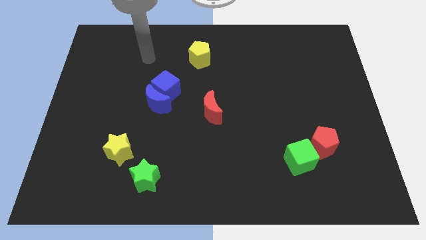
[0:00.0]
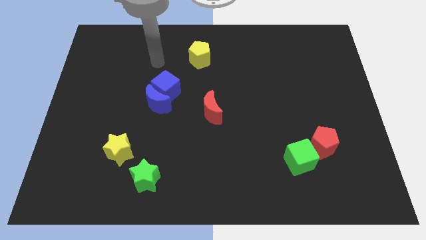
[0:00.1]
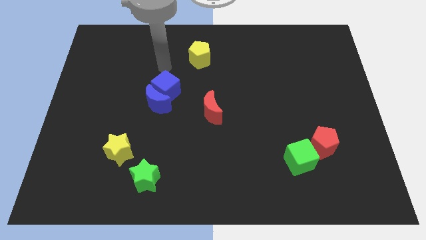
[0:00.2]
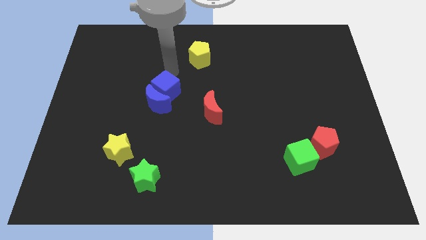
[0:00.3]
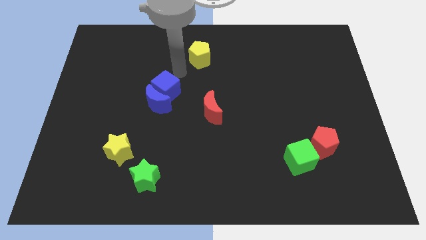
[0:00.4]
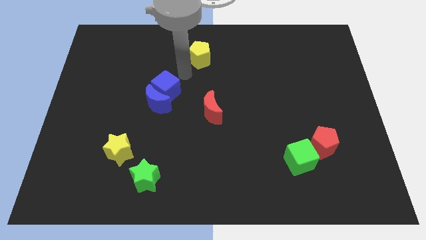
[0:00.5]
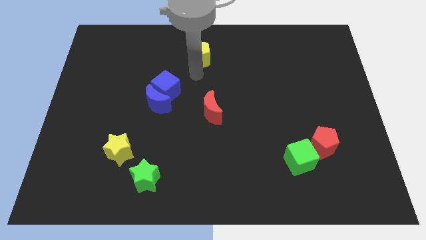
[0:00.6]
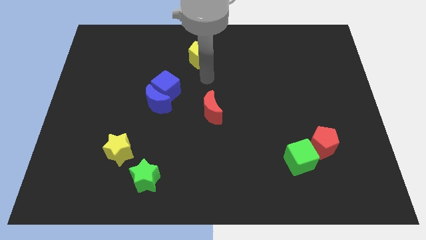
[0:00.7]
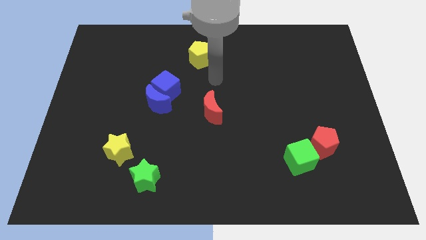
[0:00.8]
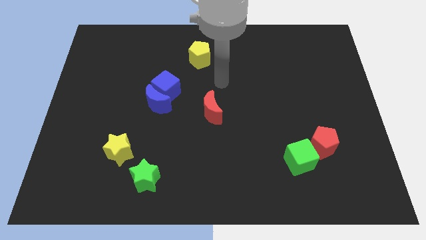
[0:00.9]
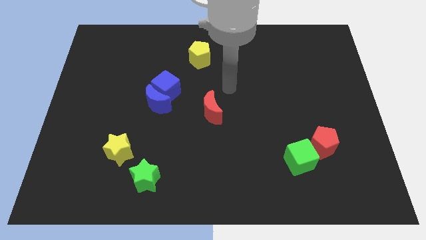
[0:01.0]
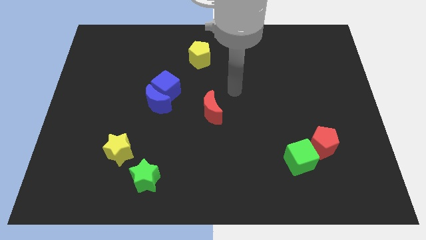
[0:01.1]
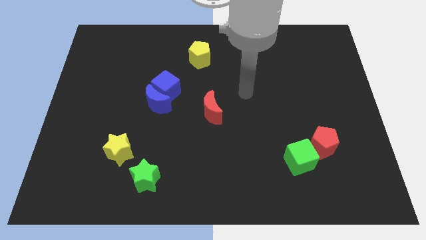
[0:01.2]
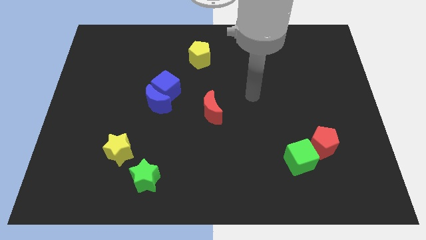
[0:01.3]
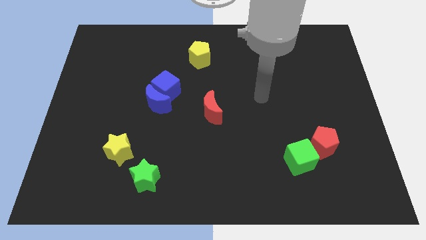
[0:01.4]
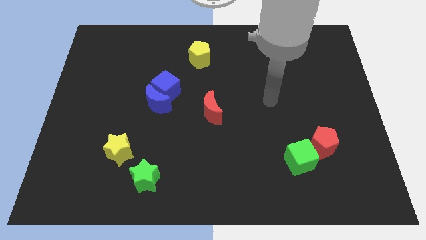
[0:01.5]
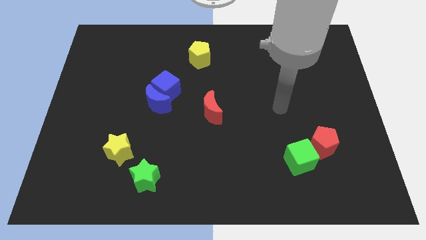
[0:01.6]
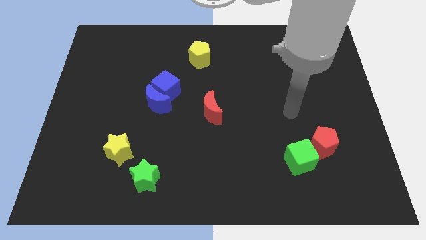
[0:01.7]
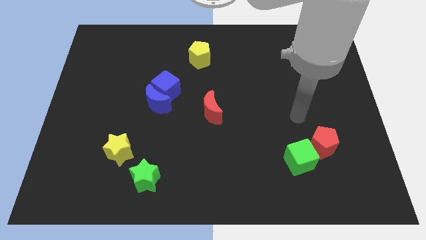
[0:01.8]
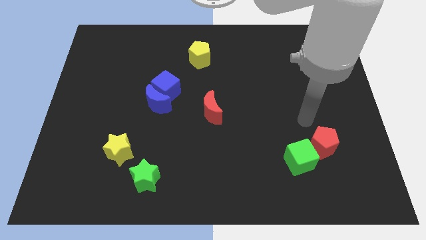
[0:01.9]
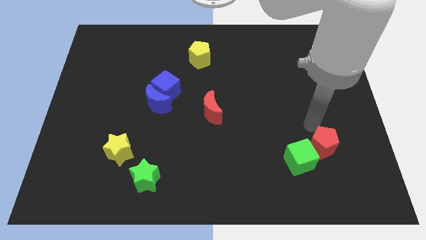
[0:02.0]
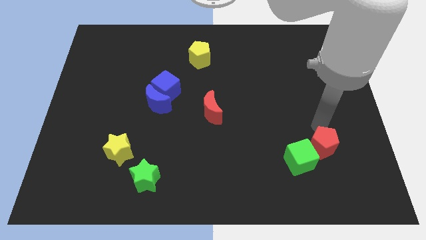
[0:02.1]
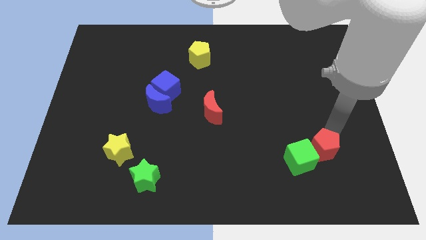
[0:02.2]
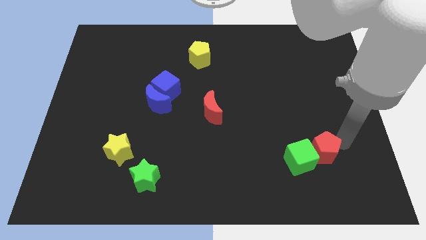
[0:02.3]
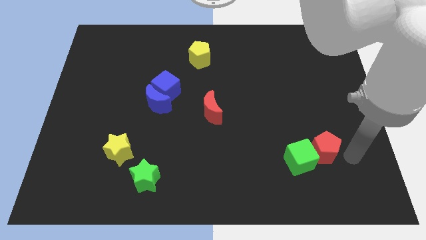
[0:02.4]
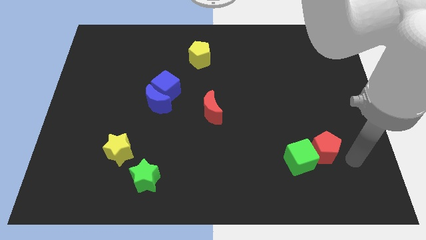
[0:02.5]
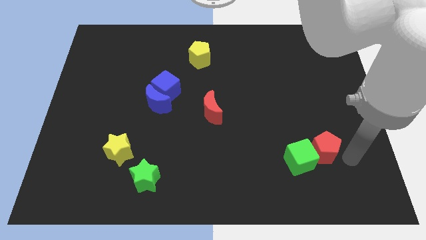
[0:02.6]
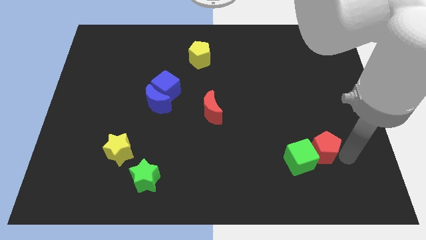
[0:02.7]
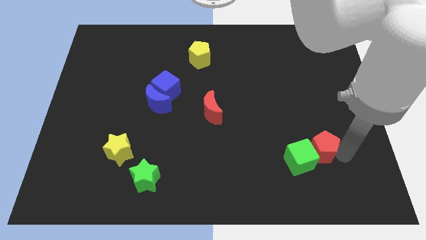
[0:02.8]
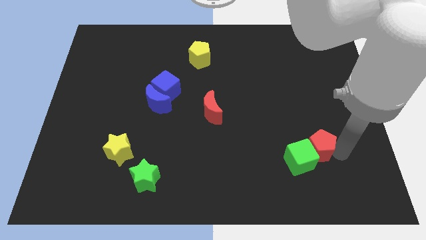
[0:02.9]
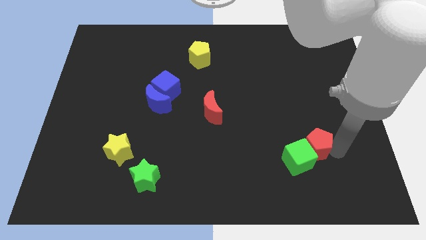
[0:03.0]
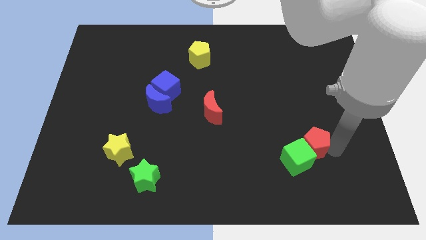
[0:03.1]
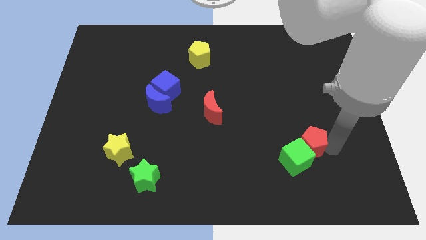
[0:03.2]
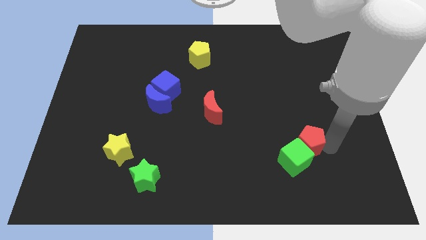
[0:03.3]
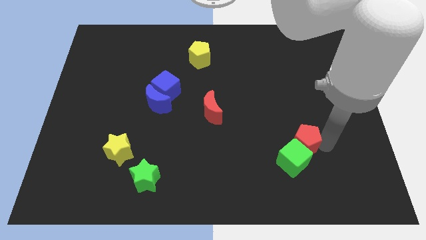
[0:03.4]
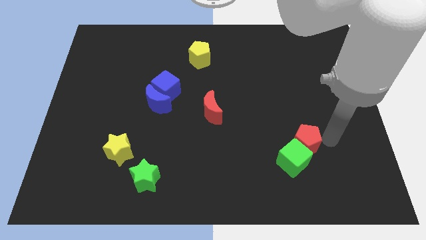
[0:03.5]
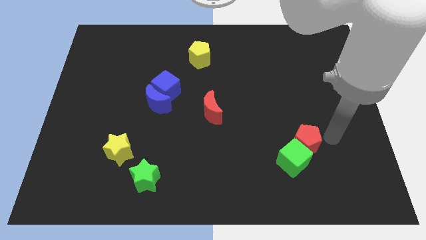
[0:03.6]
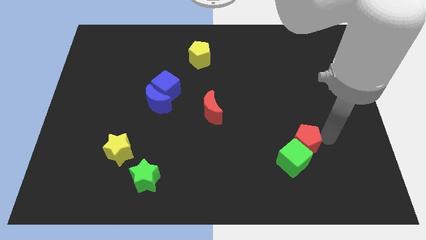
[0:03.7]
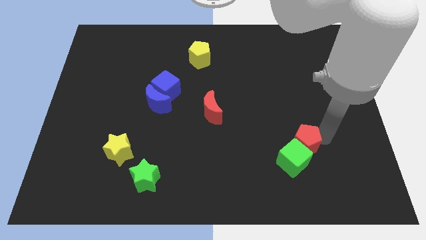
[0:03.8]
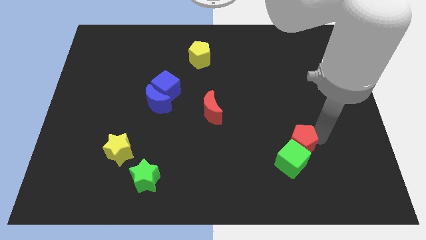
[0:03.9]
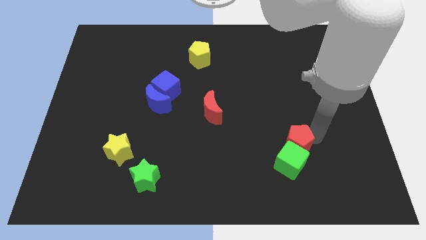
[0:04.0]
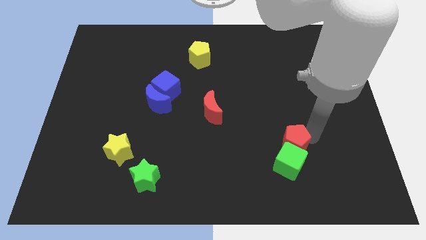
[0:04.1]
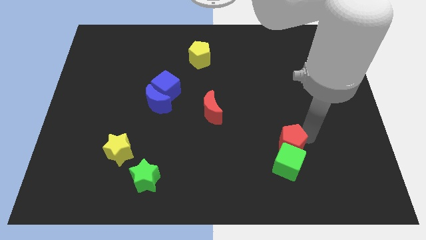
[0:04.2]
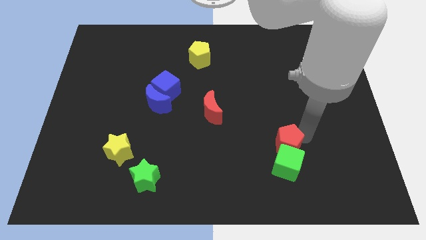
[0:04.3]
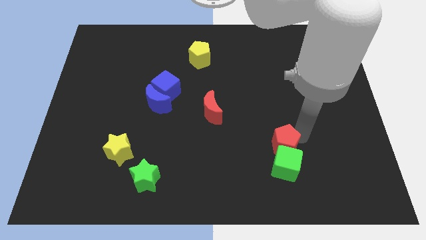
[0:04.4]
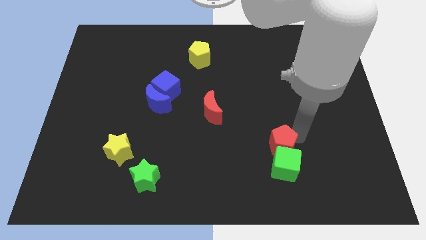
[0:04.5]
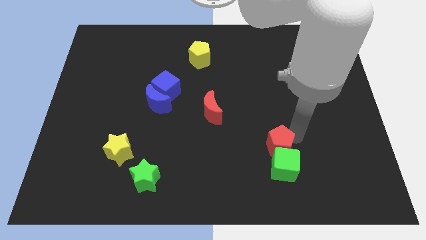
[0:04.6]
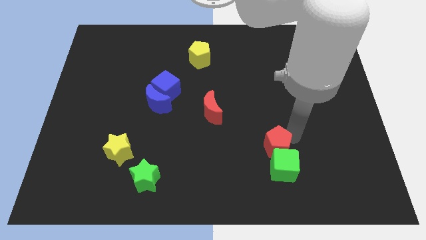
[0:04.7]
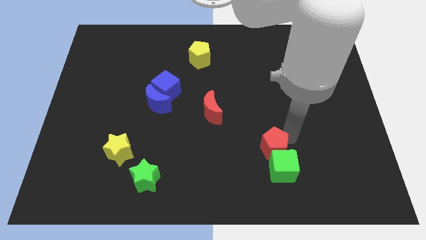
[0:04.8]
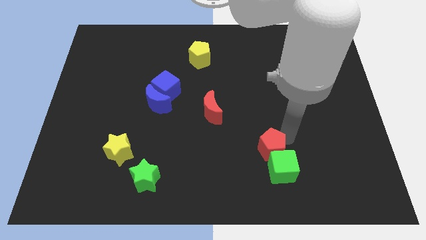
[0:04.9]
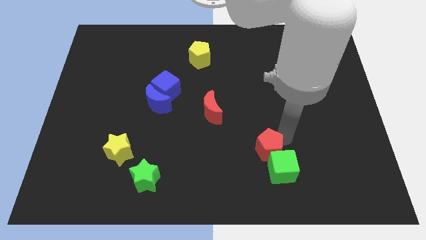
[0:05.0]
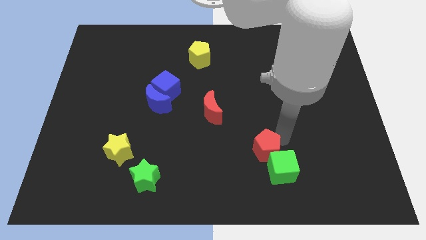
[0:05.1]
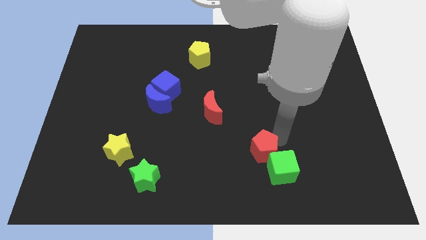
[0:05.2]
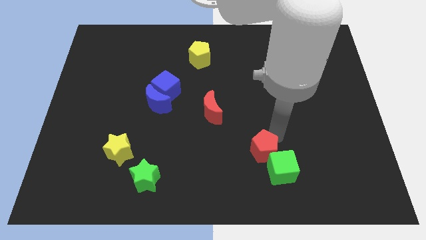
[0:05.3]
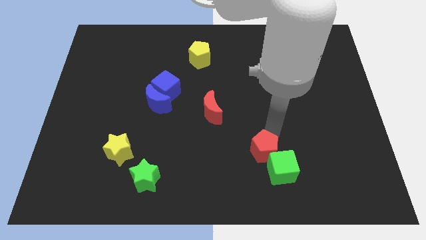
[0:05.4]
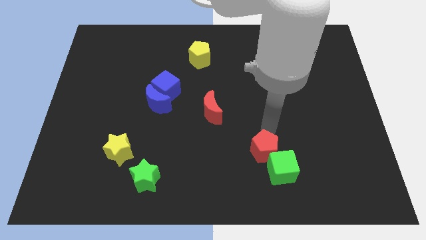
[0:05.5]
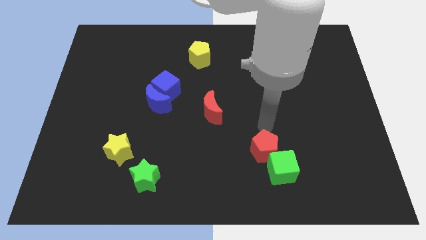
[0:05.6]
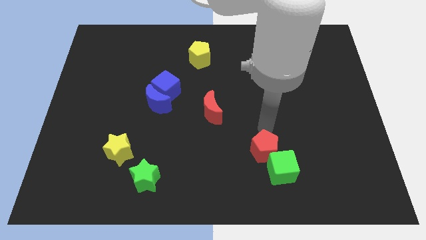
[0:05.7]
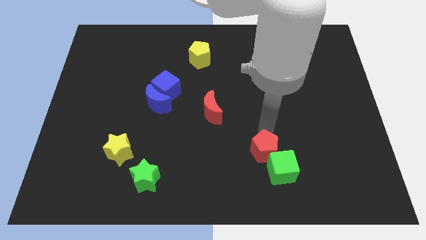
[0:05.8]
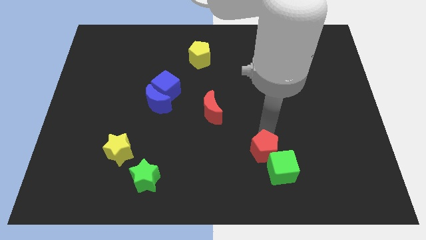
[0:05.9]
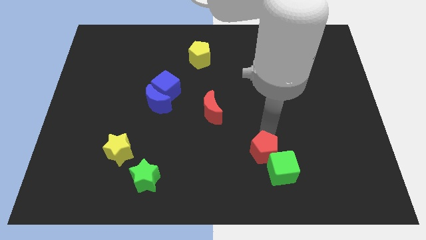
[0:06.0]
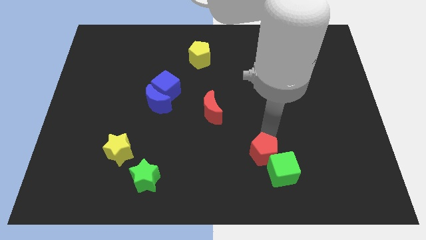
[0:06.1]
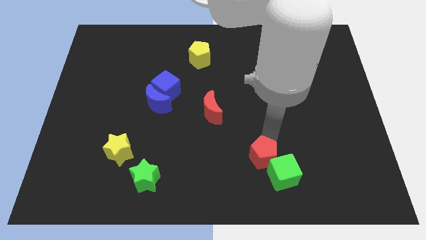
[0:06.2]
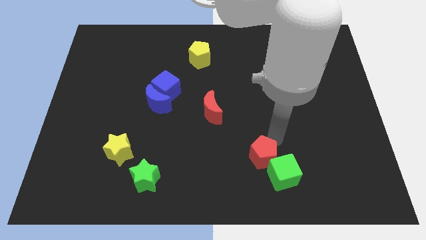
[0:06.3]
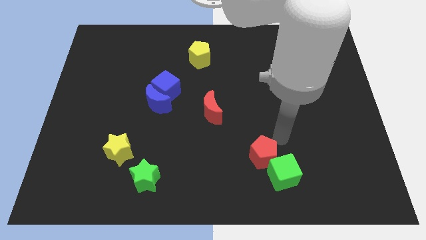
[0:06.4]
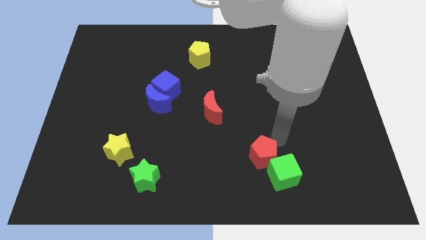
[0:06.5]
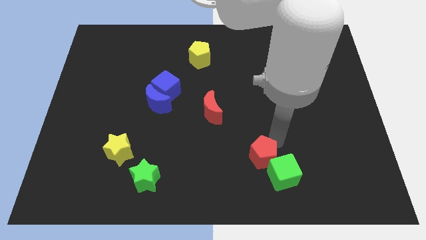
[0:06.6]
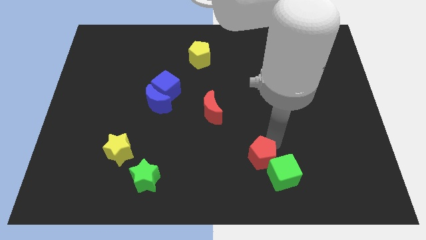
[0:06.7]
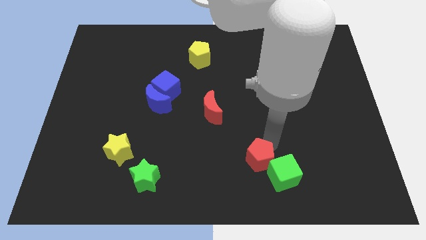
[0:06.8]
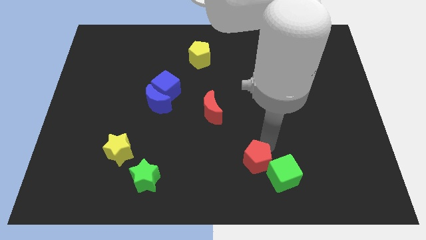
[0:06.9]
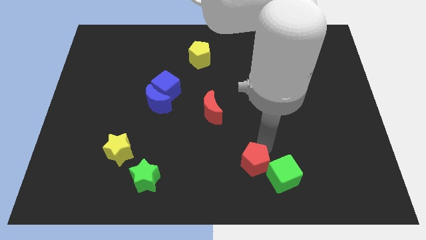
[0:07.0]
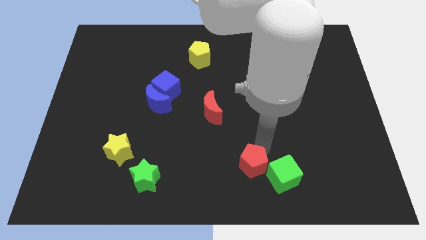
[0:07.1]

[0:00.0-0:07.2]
put the red pentagon to the bottom
